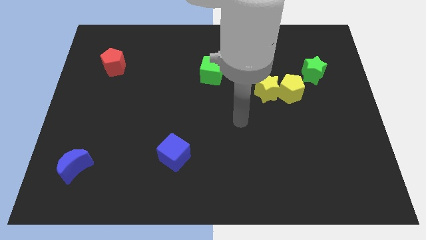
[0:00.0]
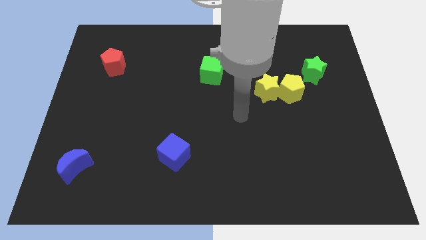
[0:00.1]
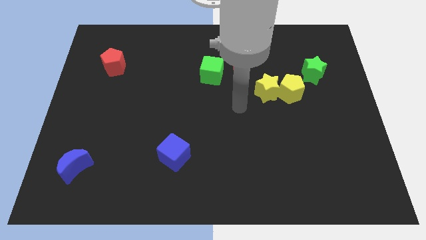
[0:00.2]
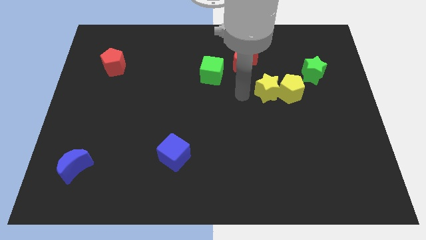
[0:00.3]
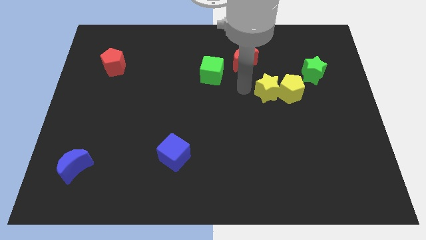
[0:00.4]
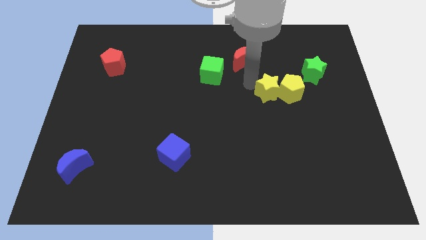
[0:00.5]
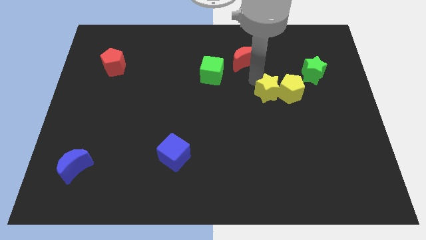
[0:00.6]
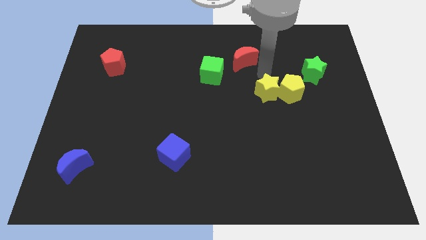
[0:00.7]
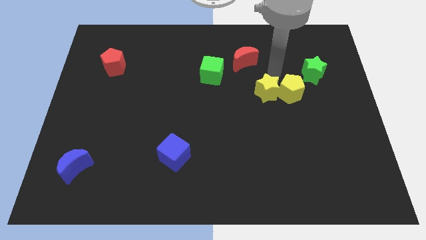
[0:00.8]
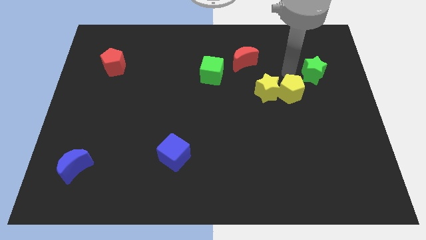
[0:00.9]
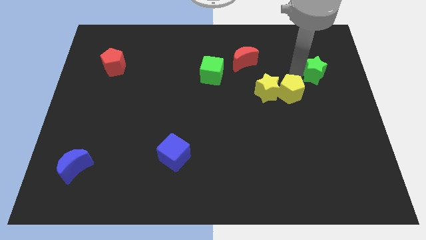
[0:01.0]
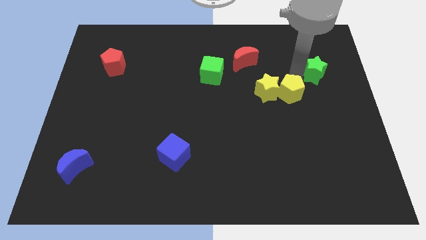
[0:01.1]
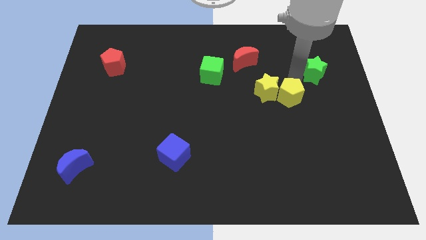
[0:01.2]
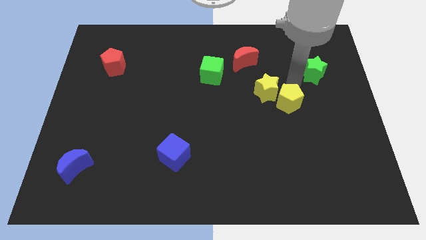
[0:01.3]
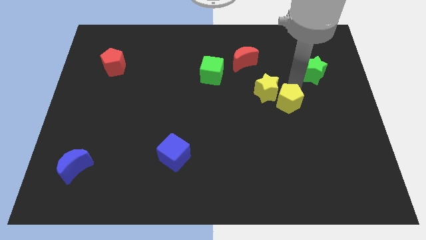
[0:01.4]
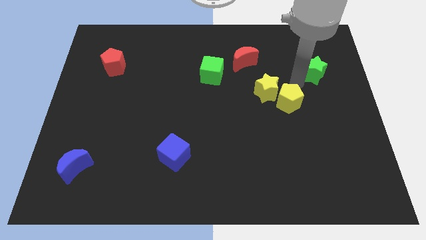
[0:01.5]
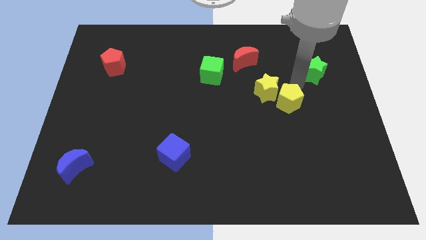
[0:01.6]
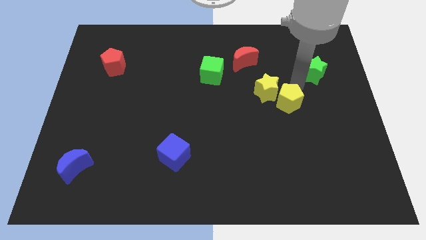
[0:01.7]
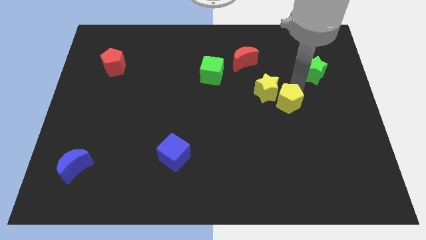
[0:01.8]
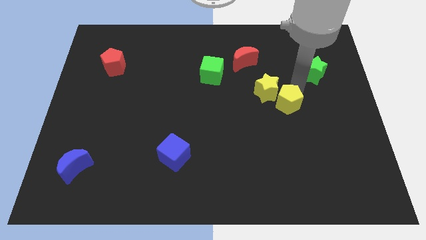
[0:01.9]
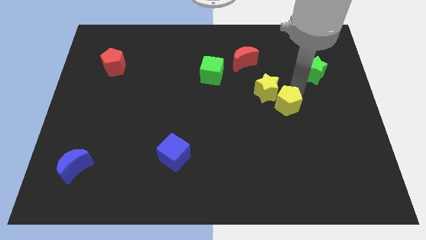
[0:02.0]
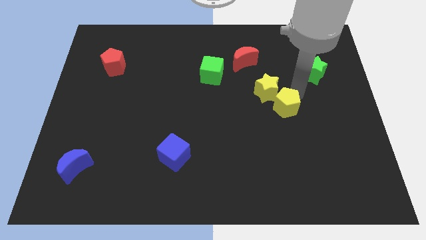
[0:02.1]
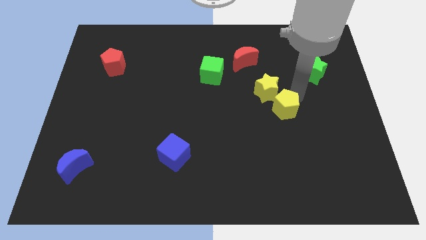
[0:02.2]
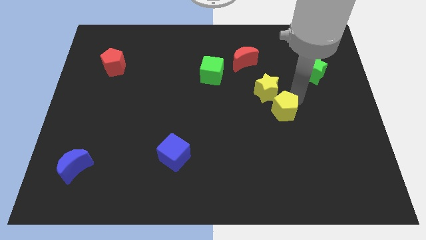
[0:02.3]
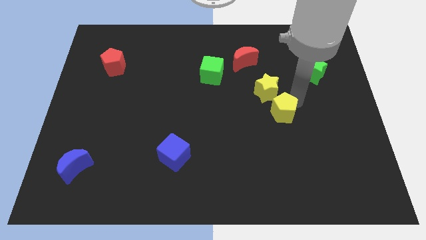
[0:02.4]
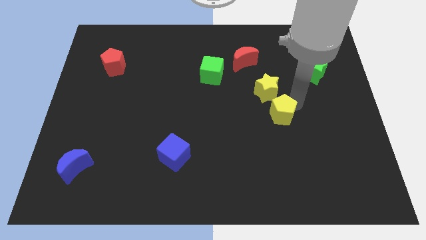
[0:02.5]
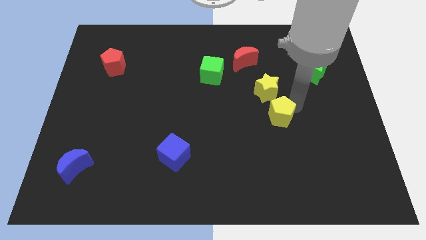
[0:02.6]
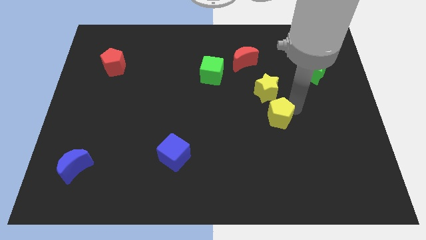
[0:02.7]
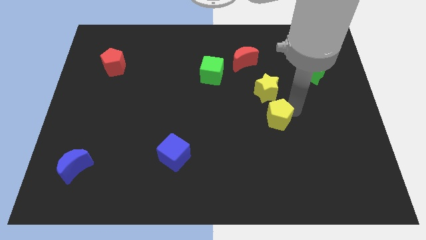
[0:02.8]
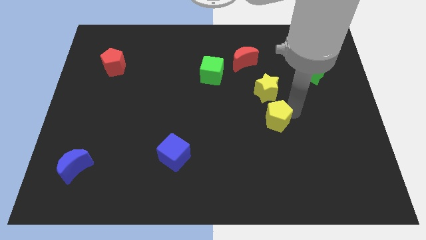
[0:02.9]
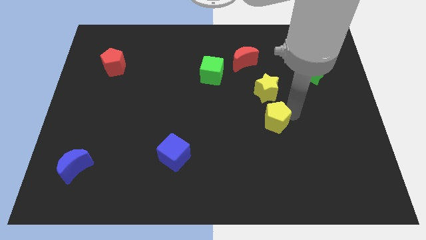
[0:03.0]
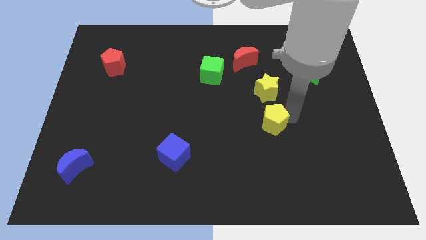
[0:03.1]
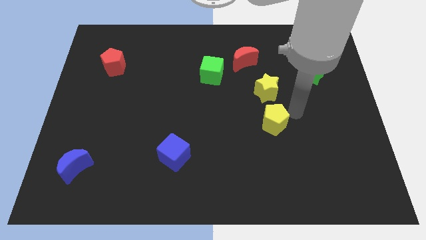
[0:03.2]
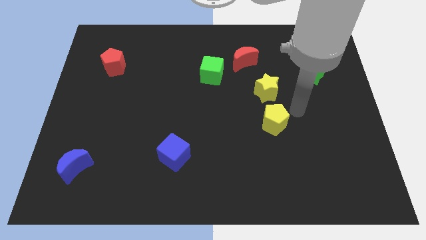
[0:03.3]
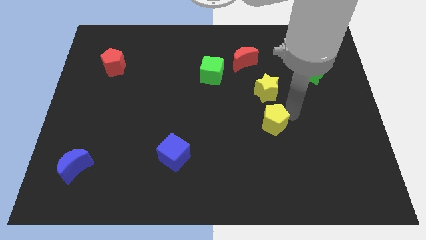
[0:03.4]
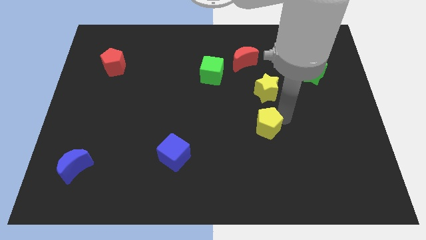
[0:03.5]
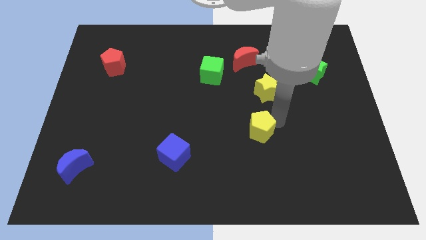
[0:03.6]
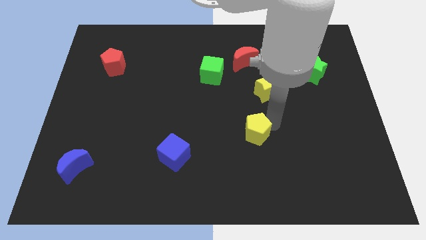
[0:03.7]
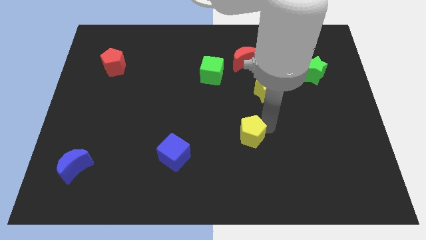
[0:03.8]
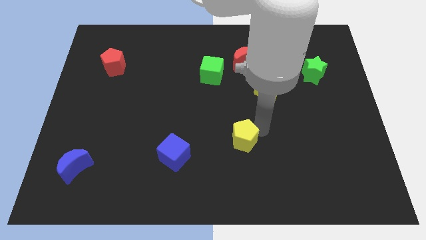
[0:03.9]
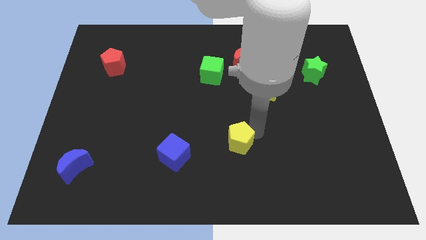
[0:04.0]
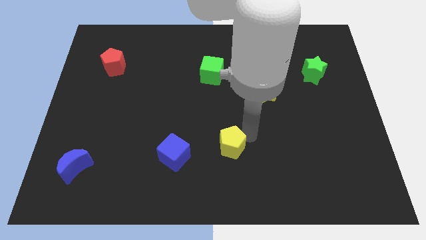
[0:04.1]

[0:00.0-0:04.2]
push the yellow pentagon down and to the left diagonally

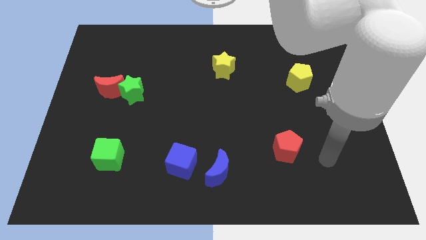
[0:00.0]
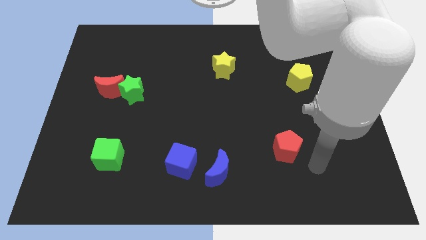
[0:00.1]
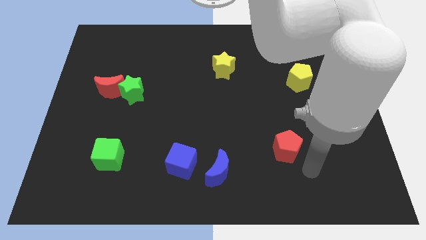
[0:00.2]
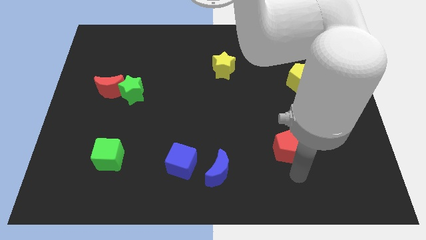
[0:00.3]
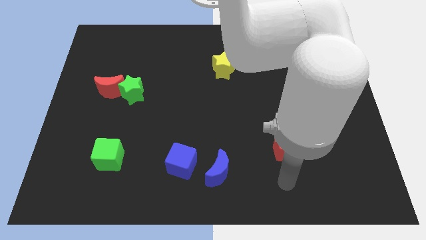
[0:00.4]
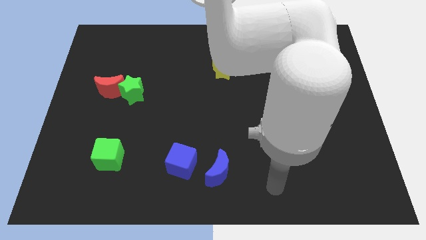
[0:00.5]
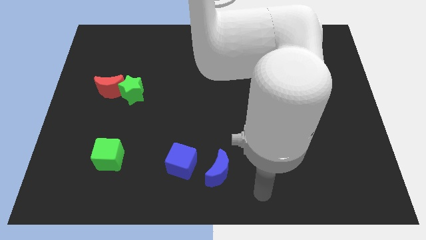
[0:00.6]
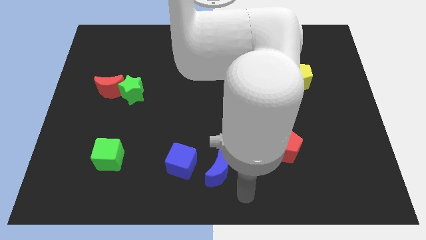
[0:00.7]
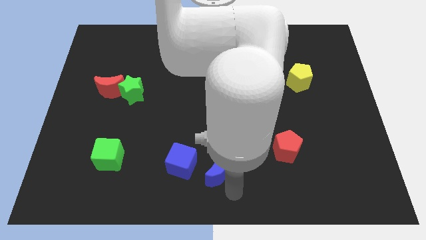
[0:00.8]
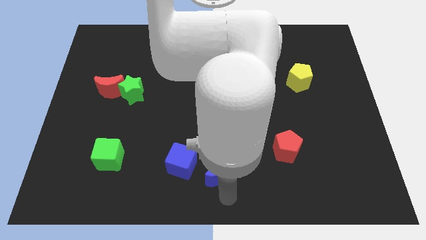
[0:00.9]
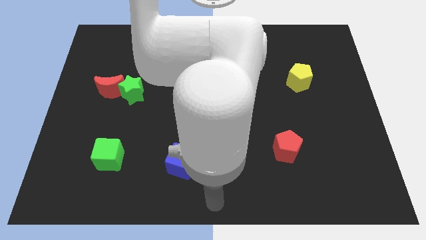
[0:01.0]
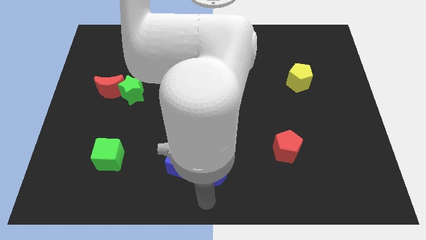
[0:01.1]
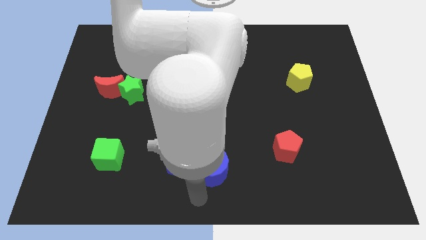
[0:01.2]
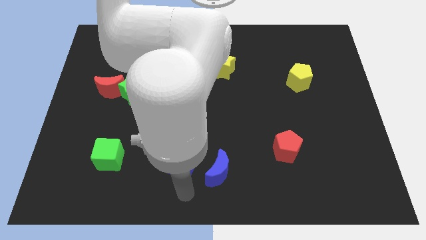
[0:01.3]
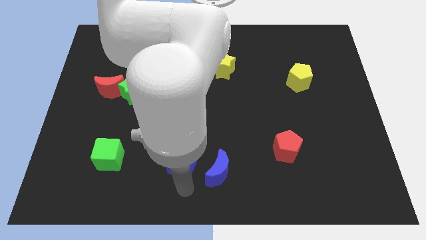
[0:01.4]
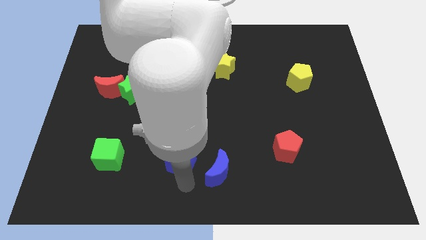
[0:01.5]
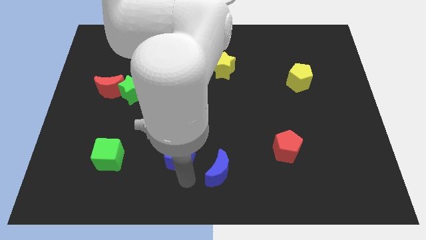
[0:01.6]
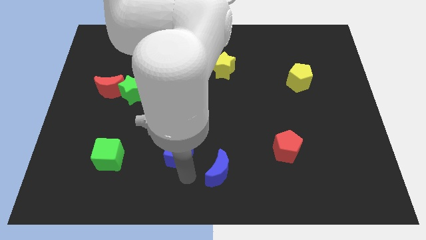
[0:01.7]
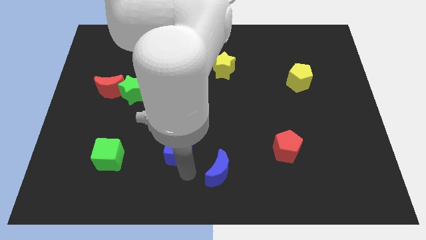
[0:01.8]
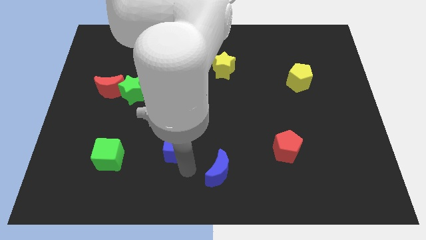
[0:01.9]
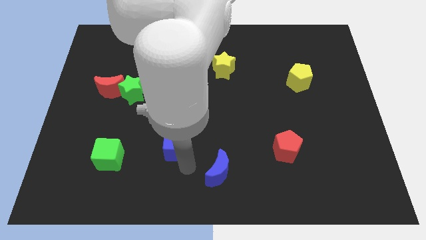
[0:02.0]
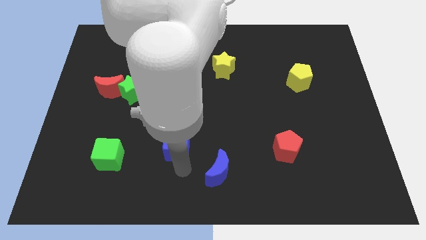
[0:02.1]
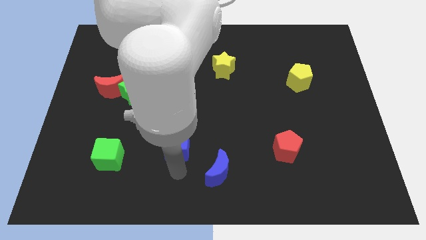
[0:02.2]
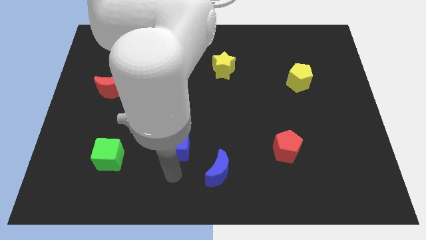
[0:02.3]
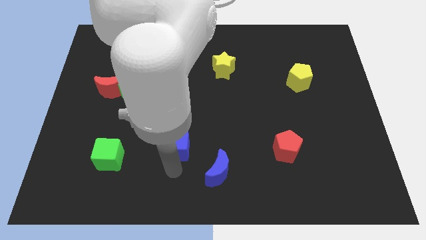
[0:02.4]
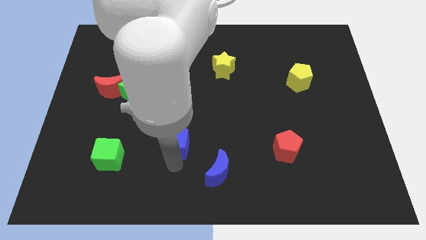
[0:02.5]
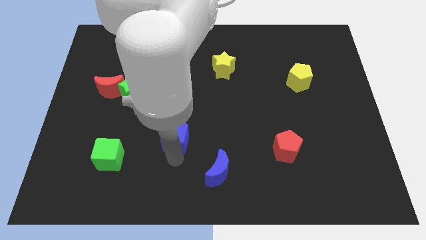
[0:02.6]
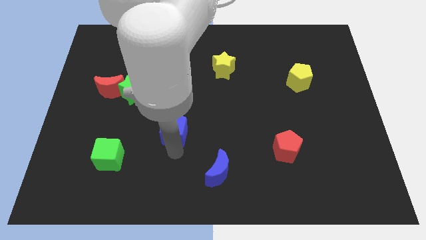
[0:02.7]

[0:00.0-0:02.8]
slide the blue cube upwards a bit

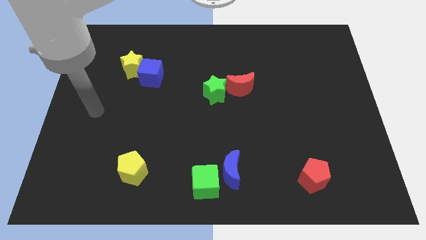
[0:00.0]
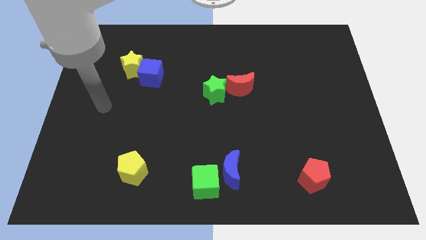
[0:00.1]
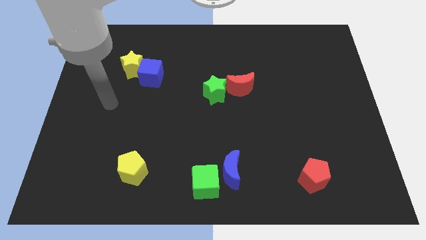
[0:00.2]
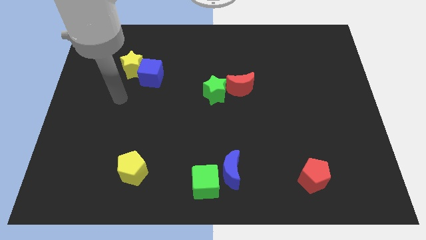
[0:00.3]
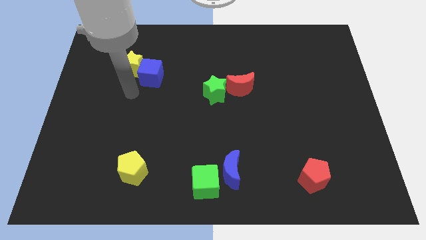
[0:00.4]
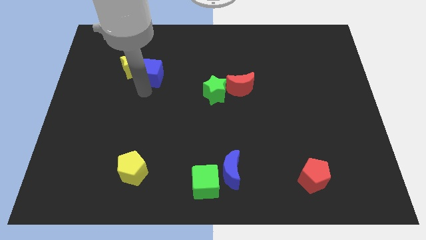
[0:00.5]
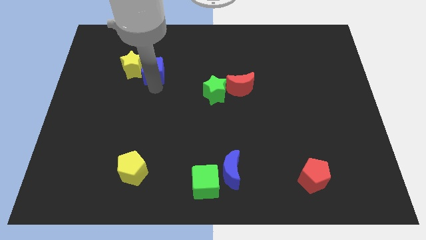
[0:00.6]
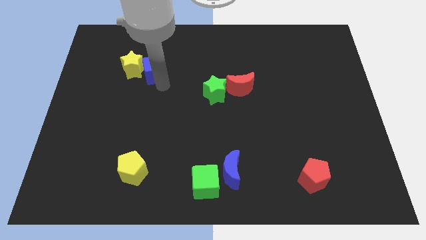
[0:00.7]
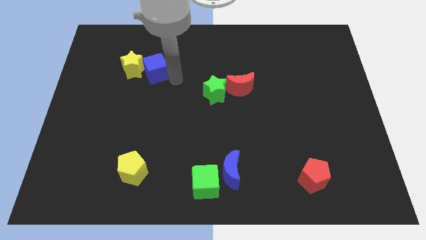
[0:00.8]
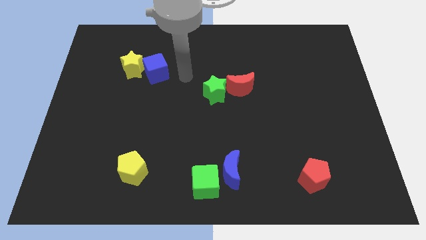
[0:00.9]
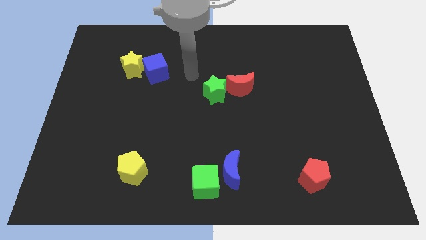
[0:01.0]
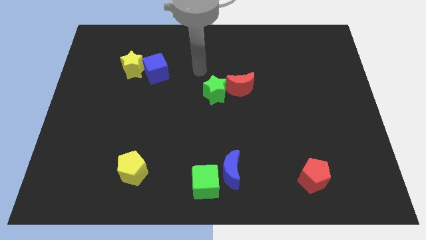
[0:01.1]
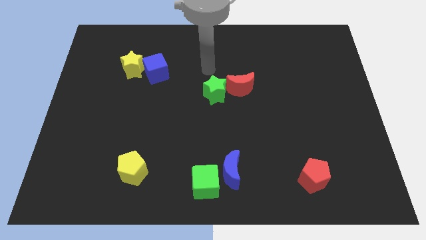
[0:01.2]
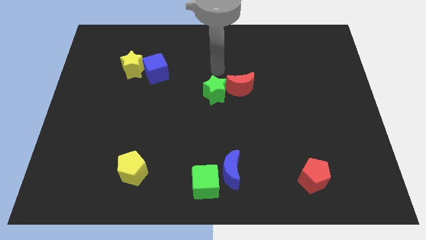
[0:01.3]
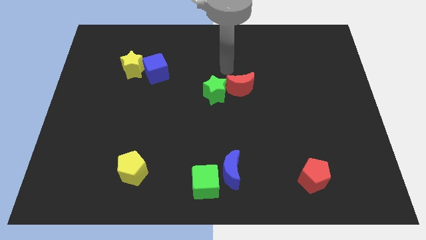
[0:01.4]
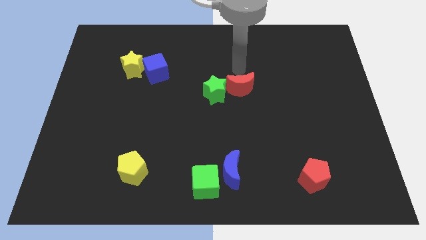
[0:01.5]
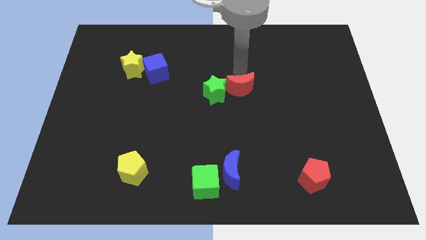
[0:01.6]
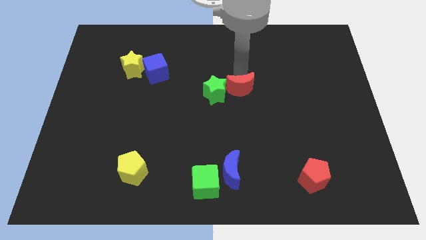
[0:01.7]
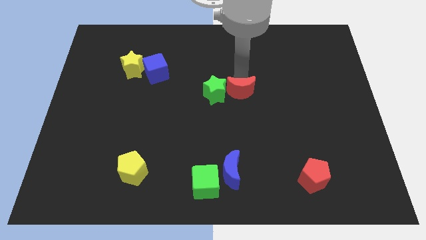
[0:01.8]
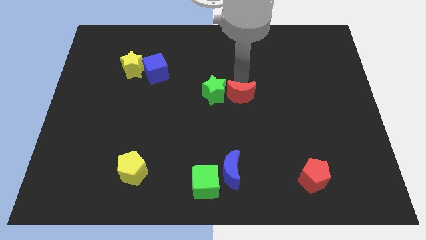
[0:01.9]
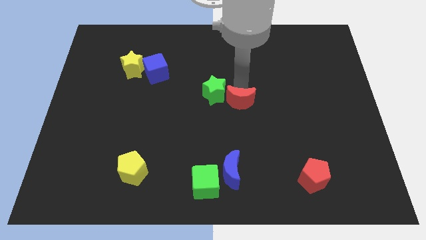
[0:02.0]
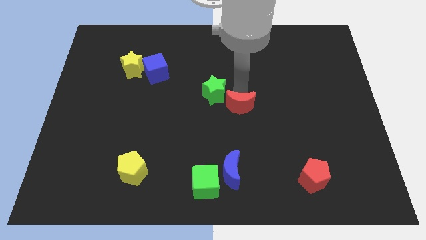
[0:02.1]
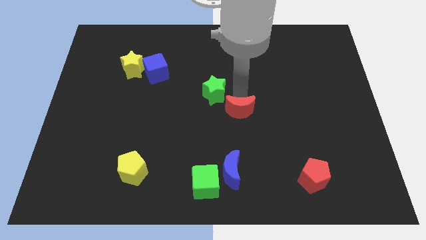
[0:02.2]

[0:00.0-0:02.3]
slightly push the red moon down
